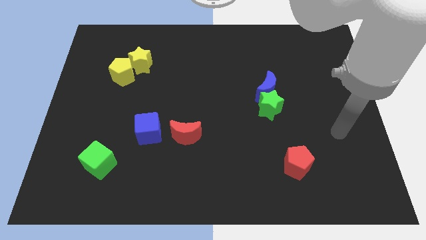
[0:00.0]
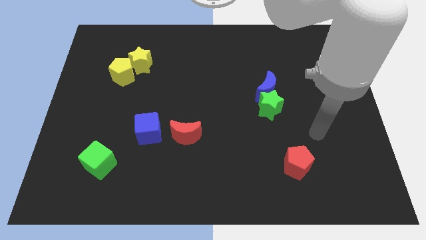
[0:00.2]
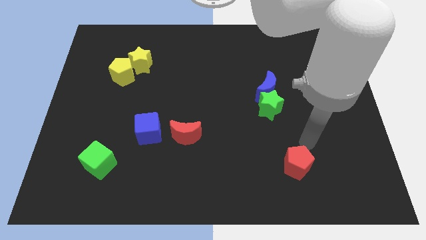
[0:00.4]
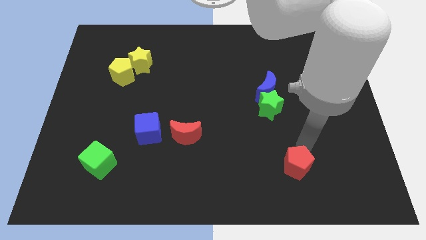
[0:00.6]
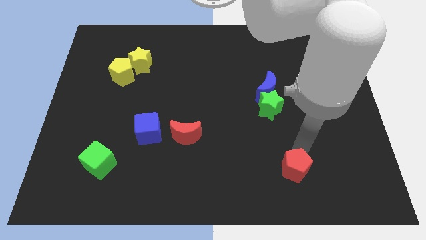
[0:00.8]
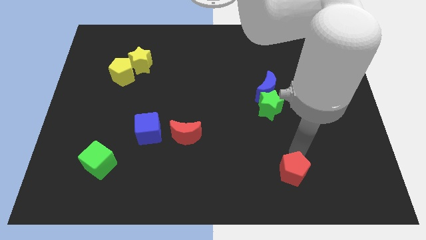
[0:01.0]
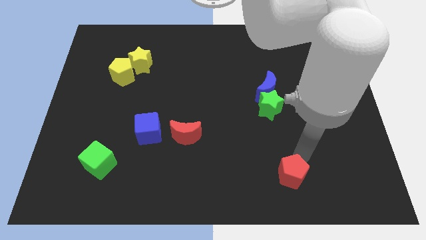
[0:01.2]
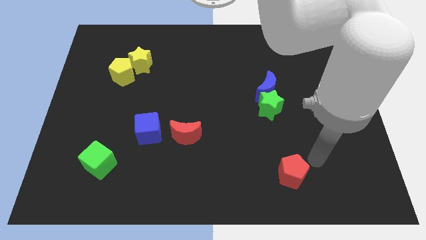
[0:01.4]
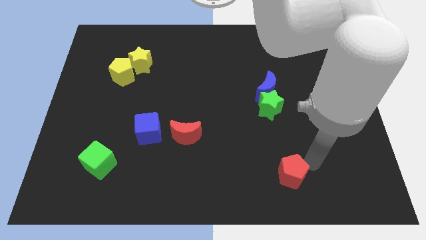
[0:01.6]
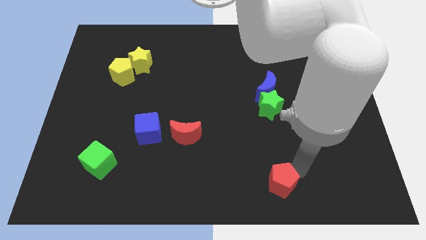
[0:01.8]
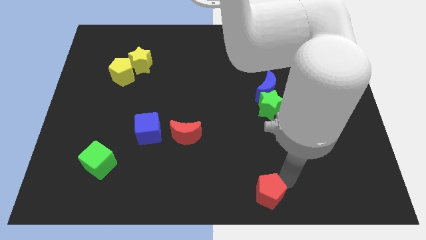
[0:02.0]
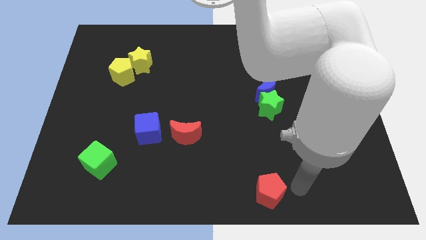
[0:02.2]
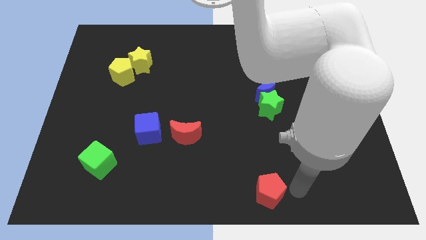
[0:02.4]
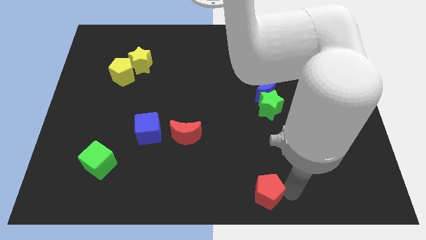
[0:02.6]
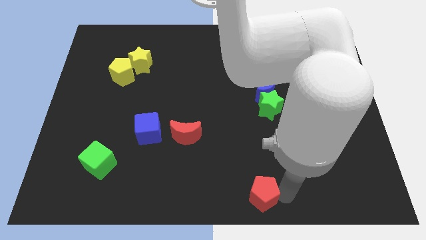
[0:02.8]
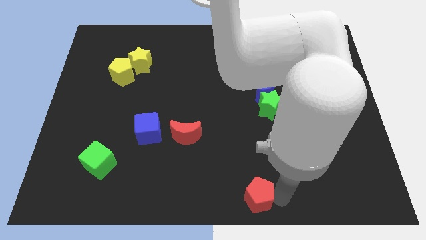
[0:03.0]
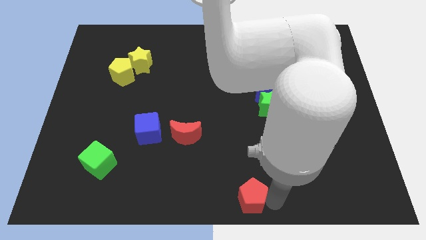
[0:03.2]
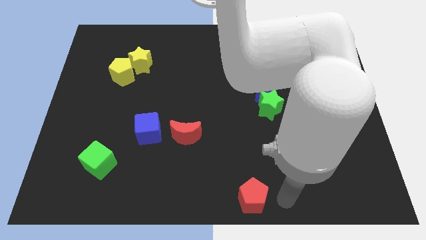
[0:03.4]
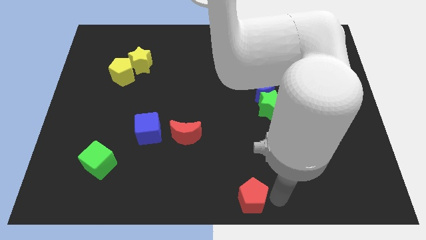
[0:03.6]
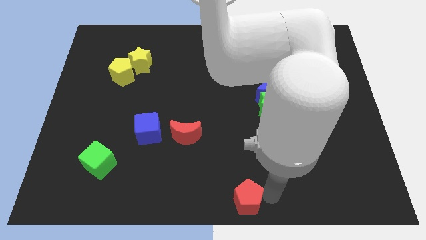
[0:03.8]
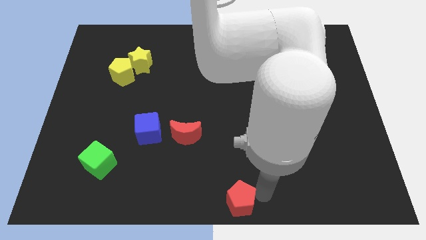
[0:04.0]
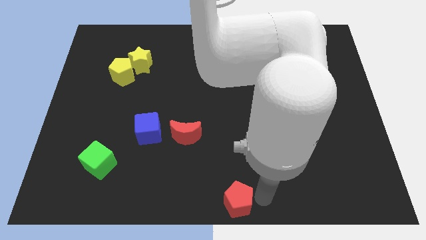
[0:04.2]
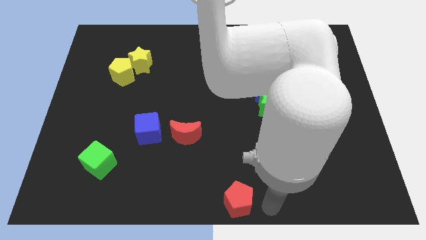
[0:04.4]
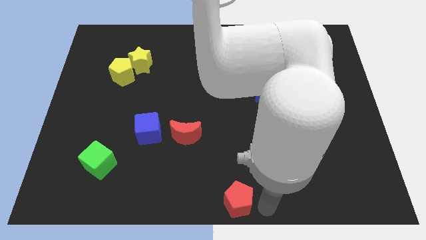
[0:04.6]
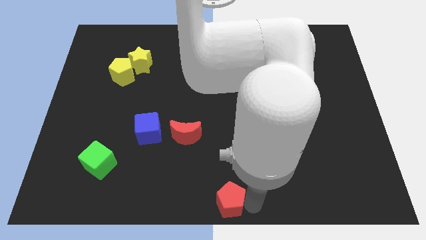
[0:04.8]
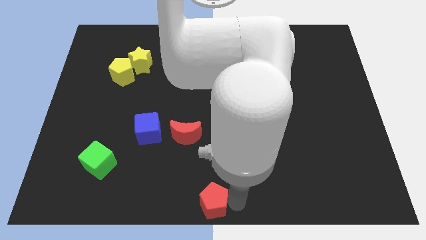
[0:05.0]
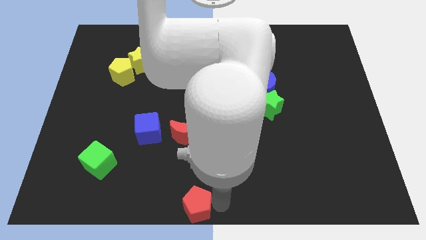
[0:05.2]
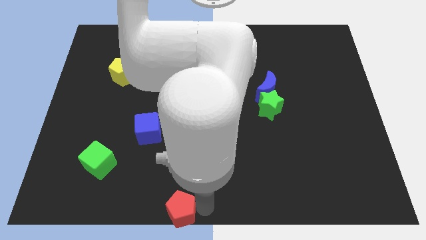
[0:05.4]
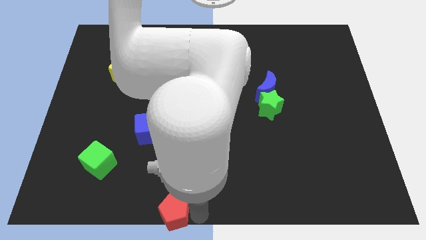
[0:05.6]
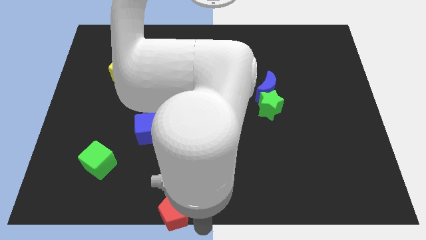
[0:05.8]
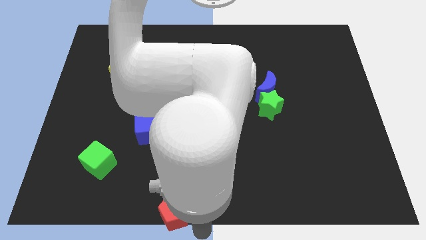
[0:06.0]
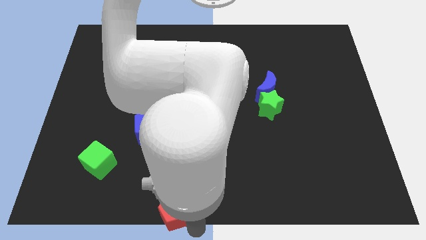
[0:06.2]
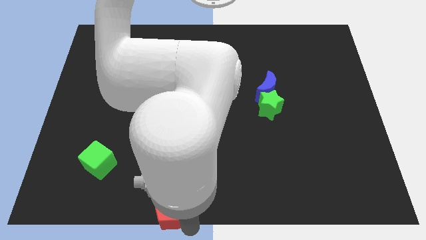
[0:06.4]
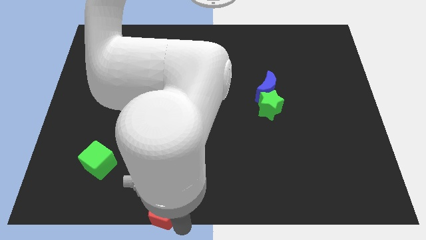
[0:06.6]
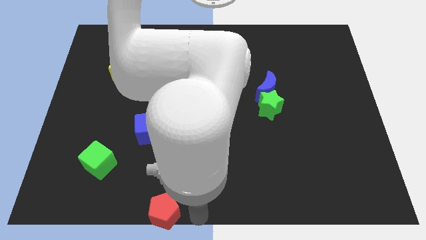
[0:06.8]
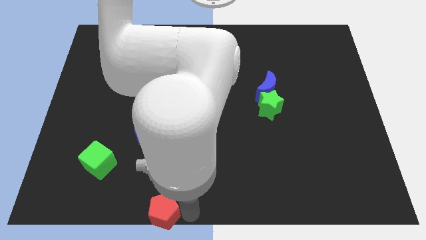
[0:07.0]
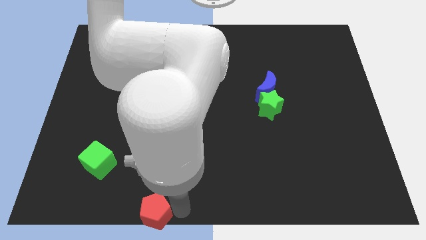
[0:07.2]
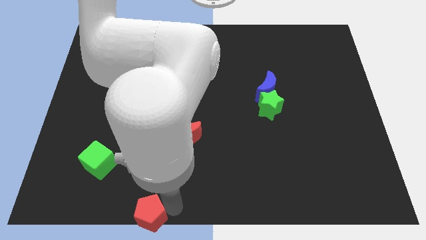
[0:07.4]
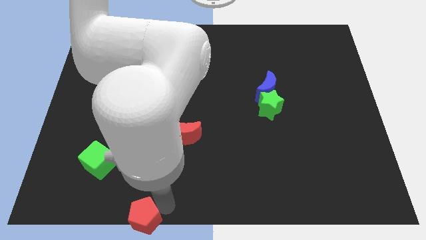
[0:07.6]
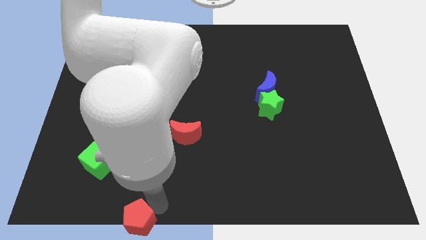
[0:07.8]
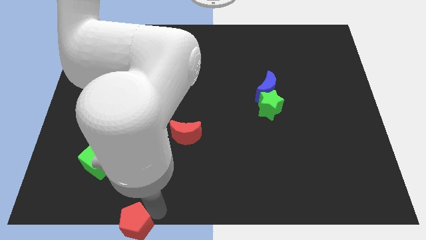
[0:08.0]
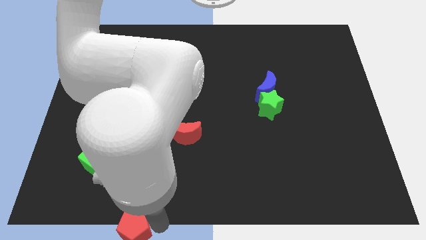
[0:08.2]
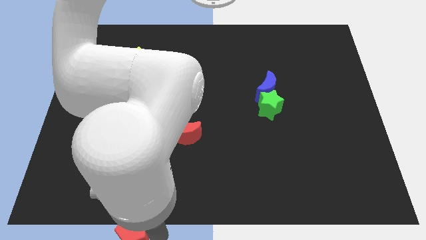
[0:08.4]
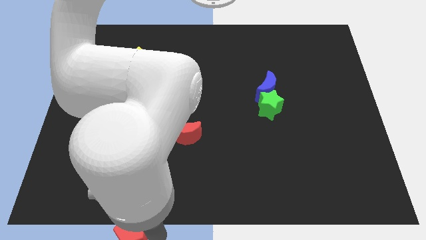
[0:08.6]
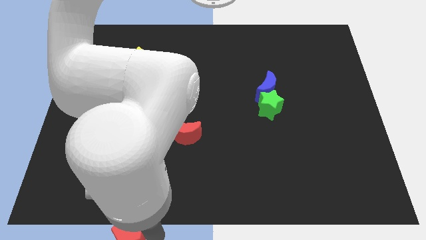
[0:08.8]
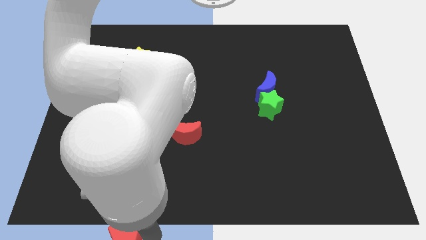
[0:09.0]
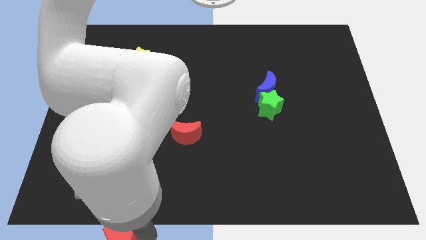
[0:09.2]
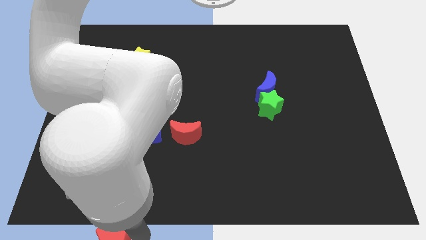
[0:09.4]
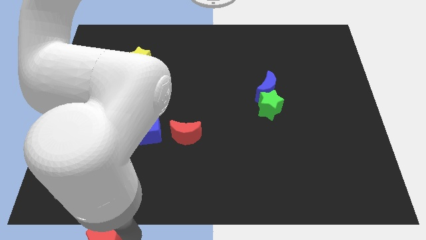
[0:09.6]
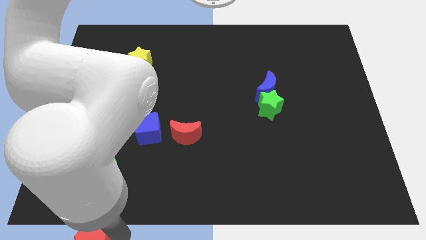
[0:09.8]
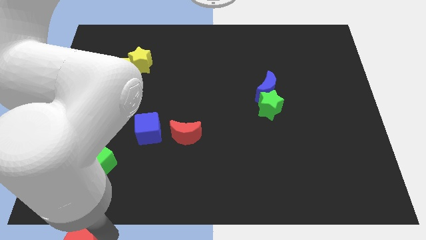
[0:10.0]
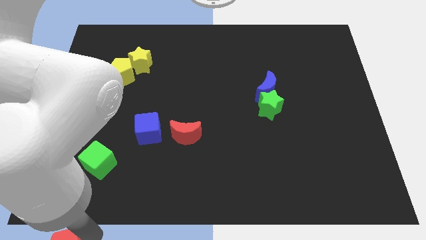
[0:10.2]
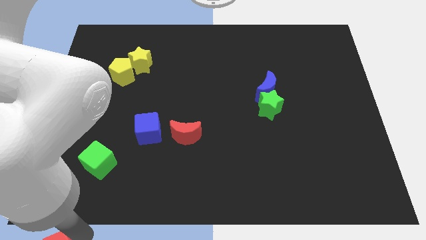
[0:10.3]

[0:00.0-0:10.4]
slide the red pentagon to the bottom left corner

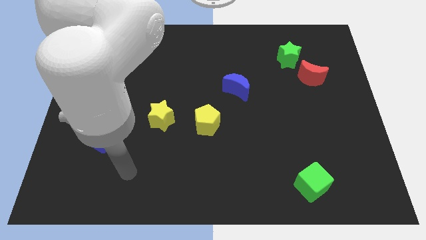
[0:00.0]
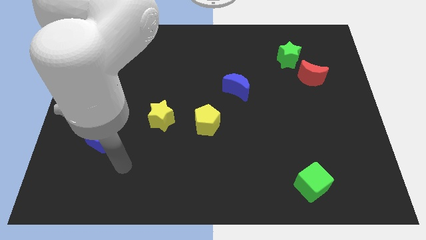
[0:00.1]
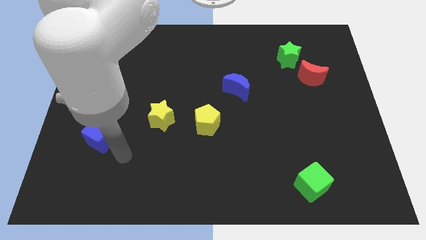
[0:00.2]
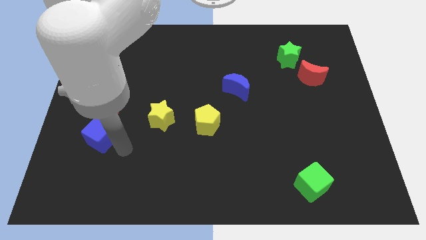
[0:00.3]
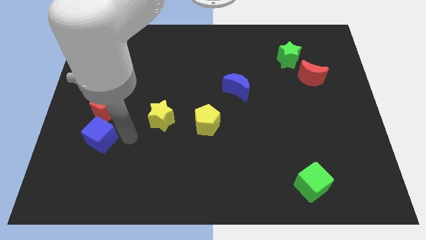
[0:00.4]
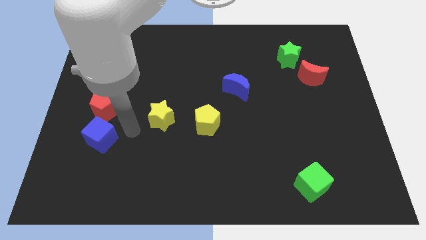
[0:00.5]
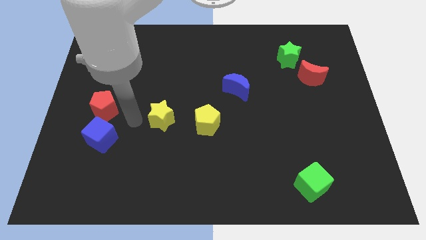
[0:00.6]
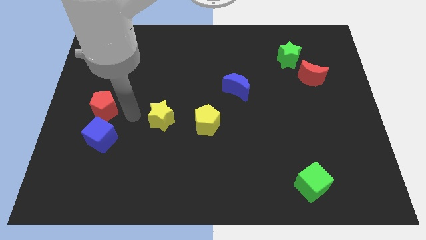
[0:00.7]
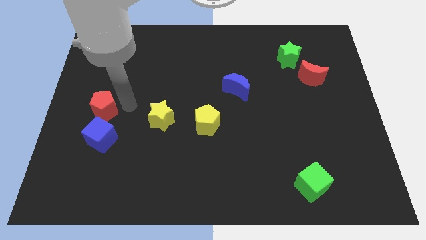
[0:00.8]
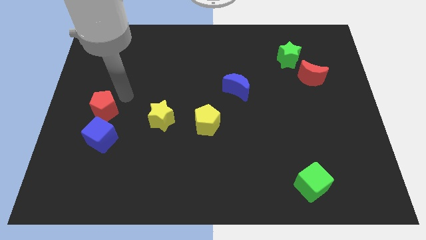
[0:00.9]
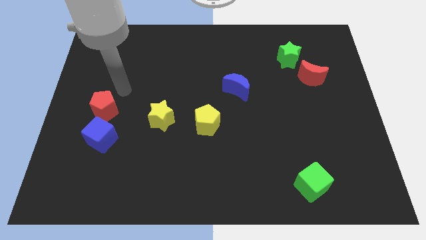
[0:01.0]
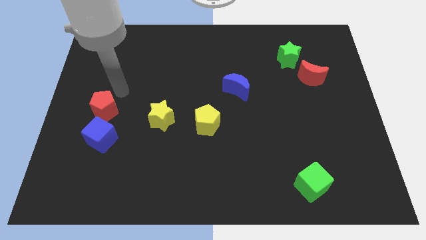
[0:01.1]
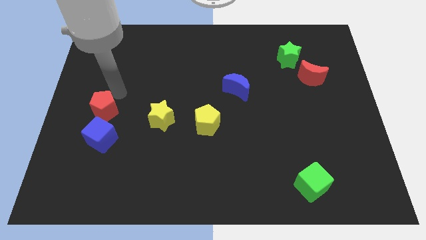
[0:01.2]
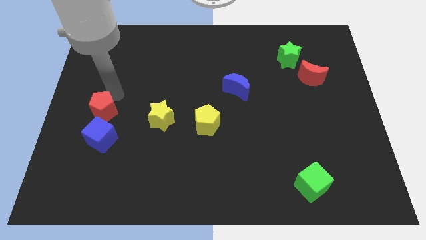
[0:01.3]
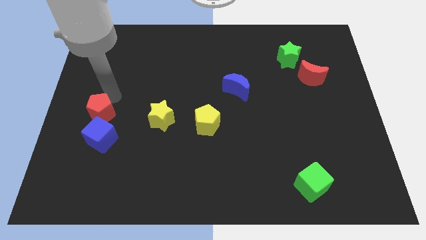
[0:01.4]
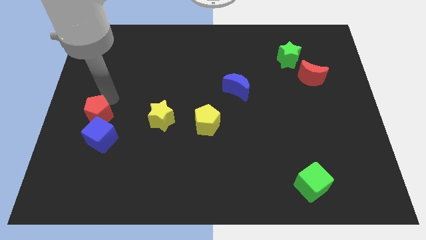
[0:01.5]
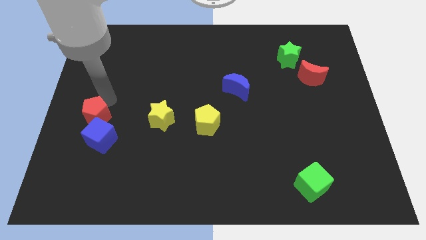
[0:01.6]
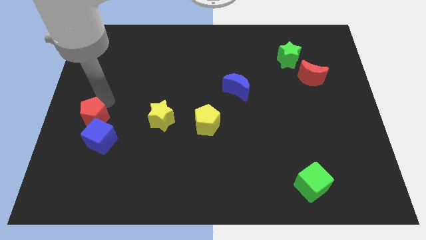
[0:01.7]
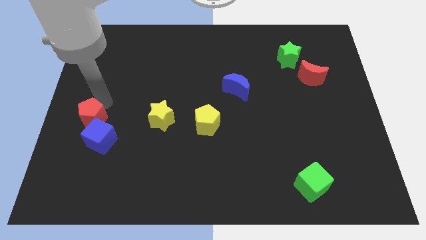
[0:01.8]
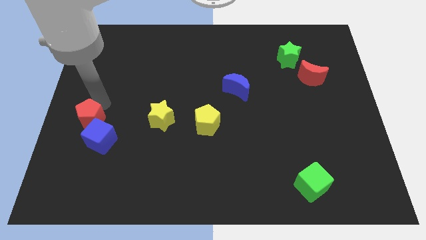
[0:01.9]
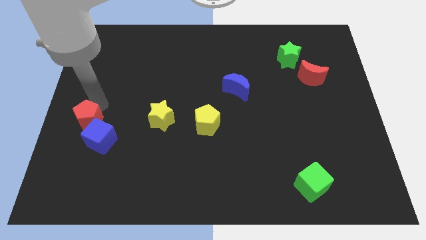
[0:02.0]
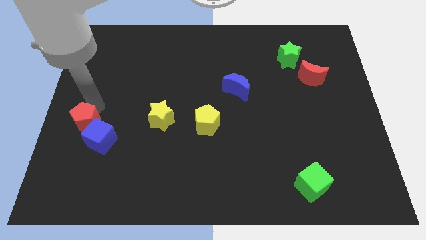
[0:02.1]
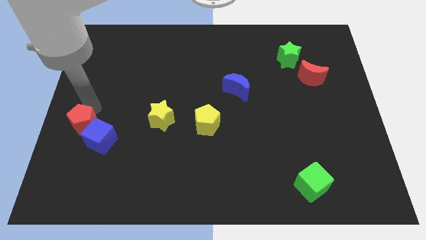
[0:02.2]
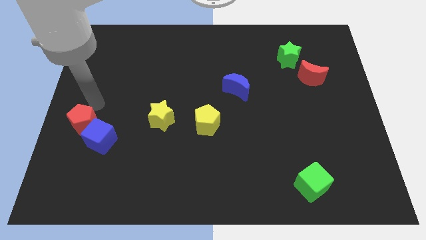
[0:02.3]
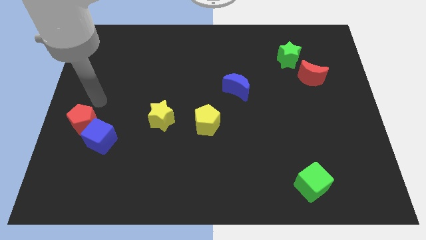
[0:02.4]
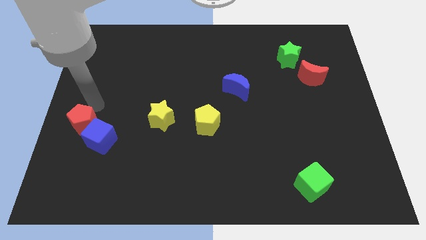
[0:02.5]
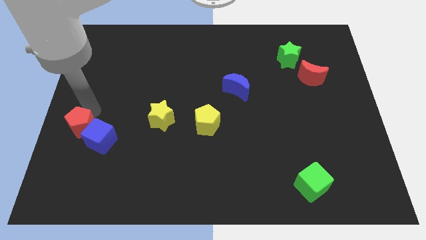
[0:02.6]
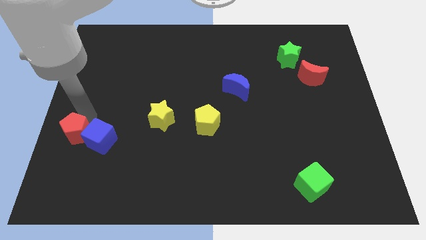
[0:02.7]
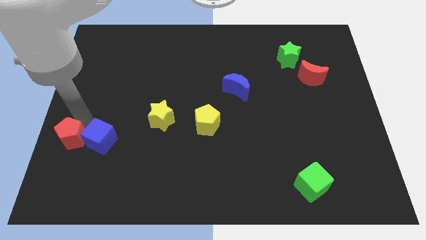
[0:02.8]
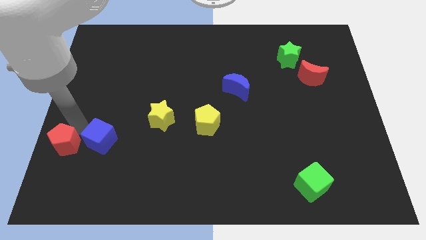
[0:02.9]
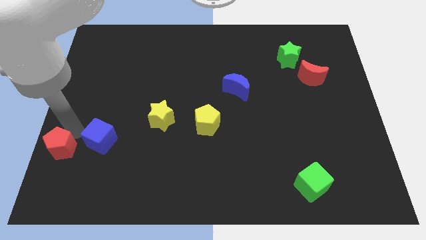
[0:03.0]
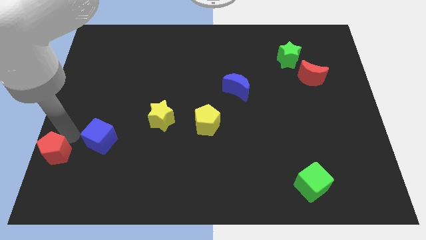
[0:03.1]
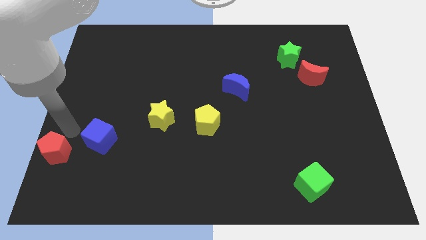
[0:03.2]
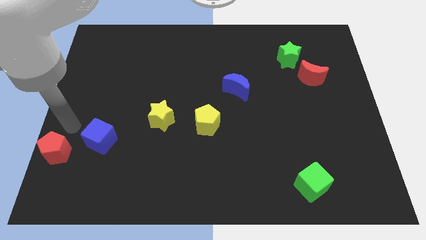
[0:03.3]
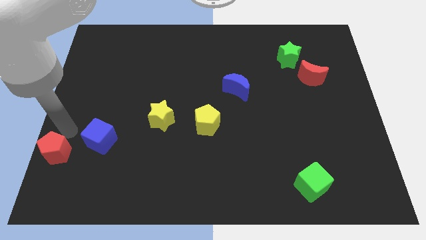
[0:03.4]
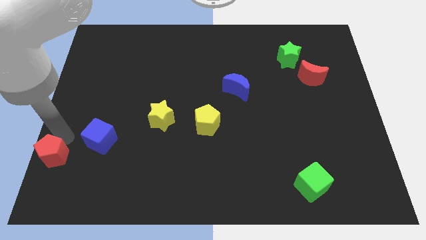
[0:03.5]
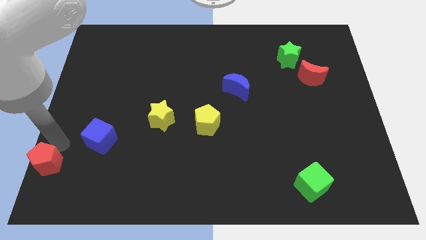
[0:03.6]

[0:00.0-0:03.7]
put the red pentagon to the lower left corner
